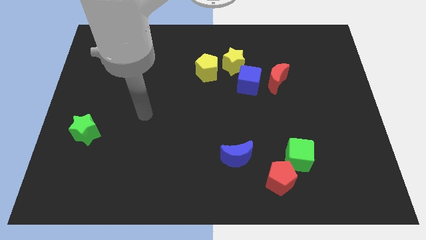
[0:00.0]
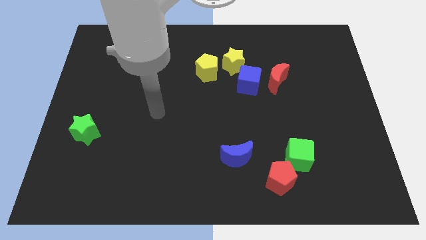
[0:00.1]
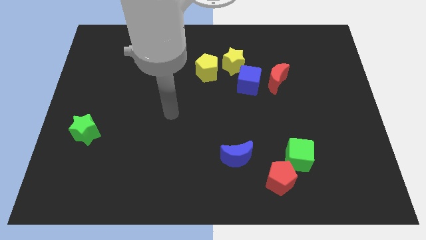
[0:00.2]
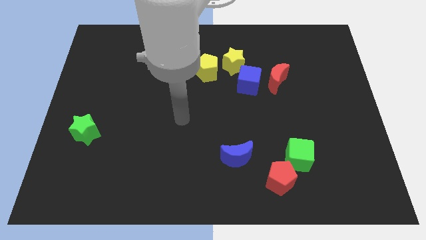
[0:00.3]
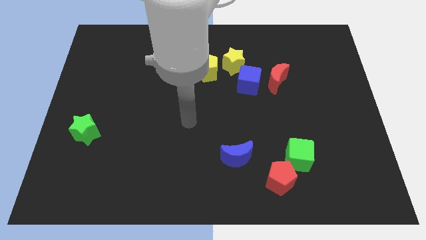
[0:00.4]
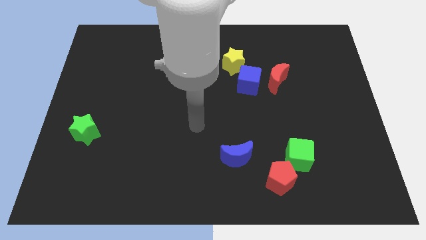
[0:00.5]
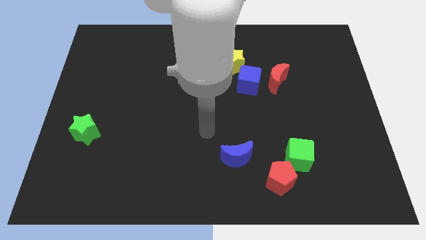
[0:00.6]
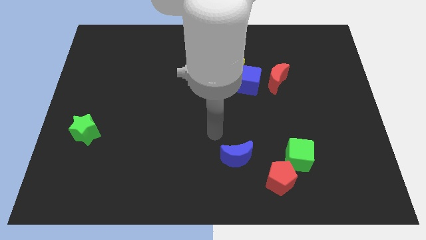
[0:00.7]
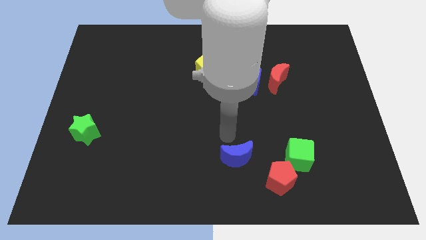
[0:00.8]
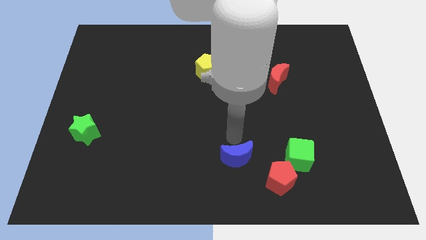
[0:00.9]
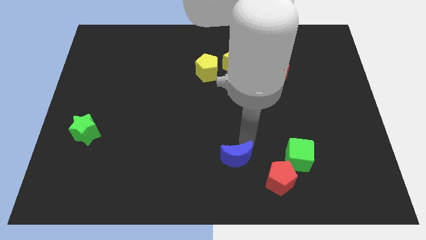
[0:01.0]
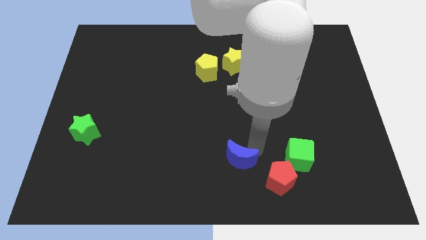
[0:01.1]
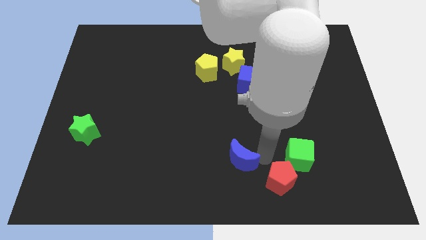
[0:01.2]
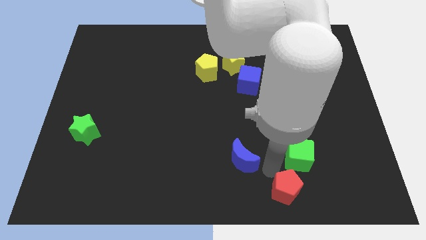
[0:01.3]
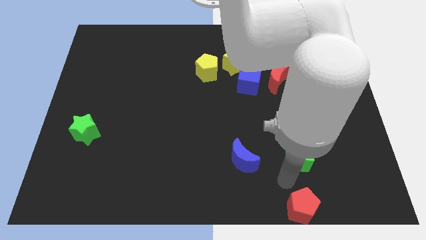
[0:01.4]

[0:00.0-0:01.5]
move the green cube away from the red pentagon

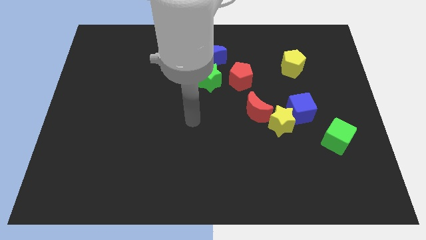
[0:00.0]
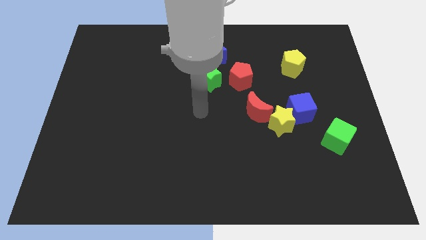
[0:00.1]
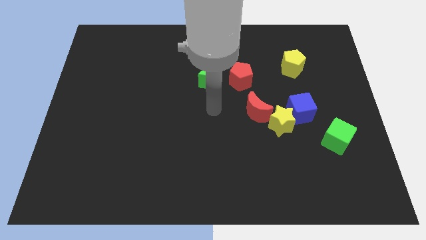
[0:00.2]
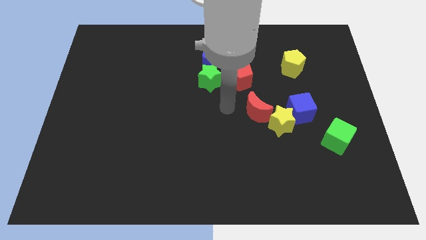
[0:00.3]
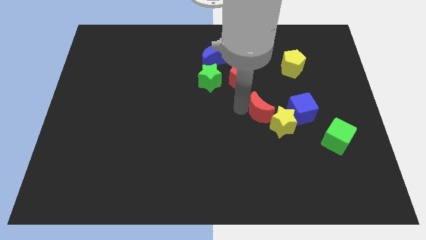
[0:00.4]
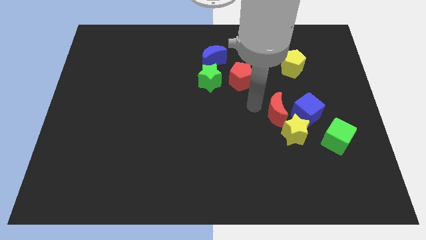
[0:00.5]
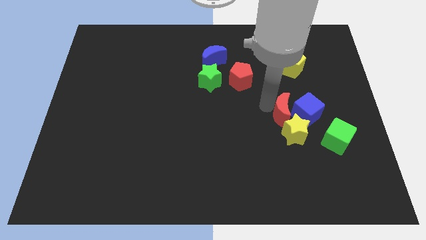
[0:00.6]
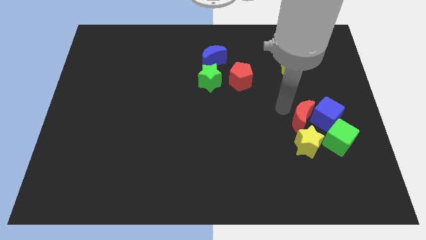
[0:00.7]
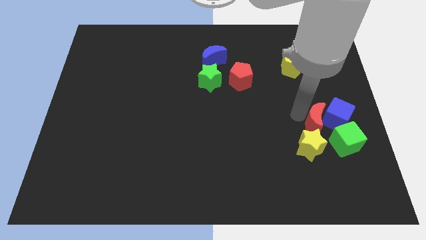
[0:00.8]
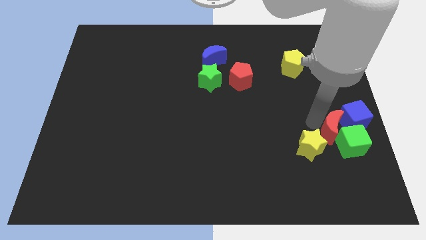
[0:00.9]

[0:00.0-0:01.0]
separate the yellow star from the blue cube and red moon

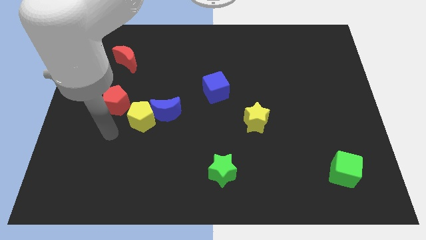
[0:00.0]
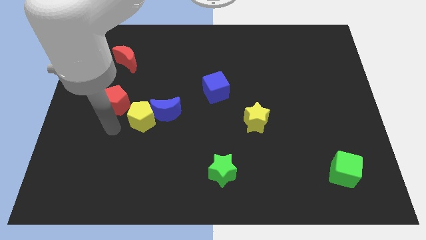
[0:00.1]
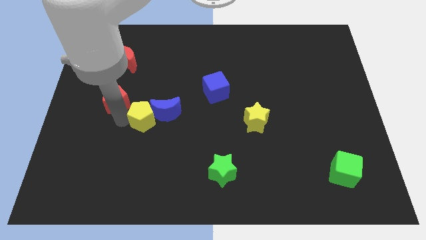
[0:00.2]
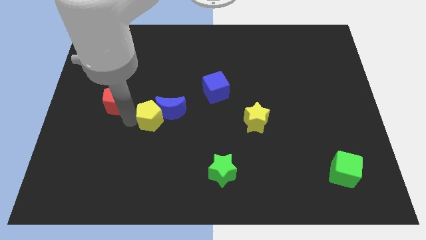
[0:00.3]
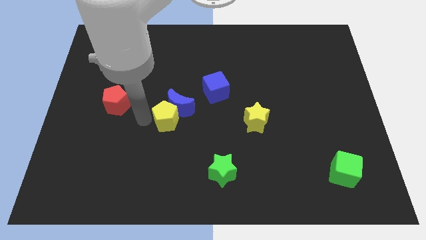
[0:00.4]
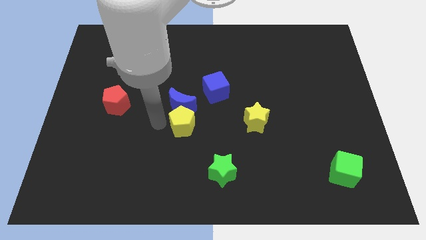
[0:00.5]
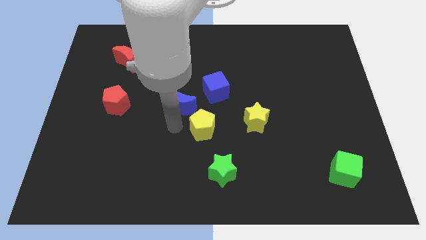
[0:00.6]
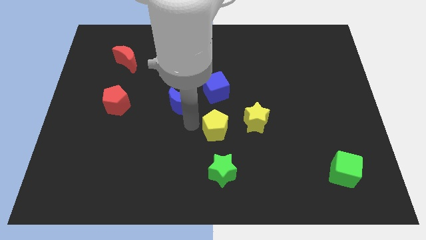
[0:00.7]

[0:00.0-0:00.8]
pull the blue moon apart from the yellow pentagon

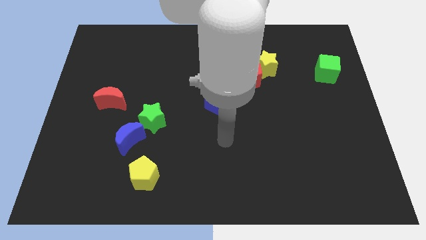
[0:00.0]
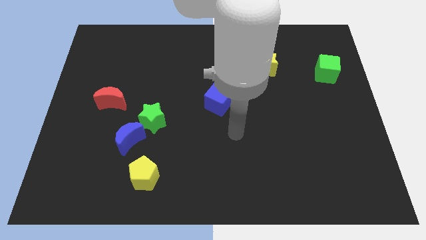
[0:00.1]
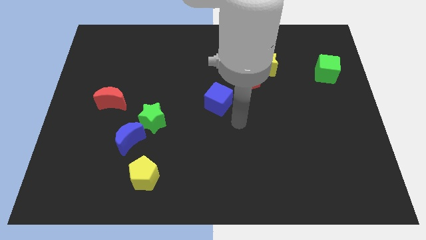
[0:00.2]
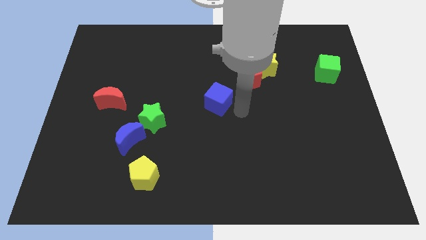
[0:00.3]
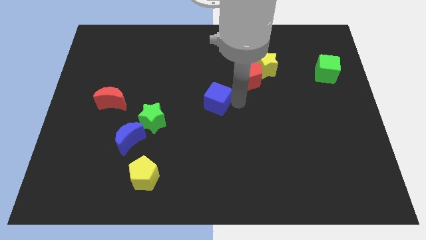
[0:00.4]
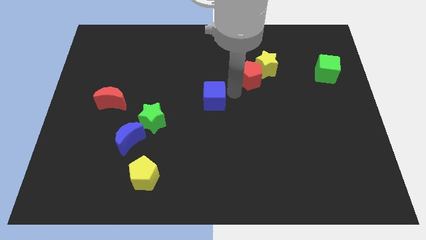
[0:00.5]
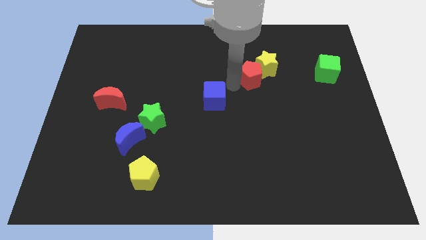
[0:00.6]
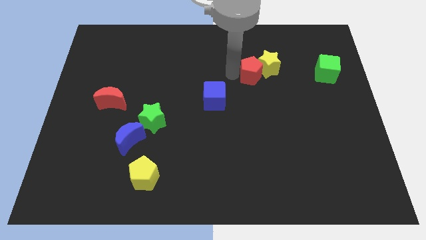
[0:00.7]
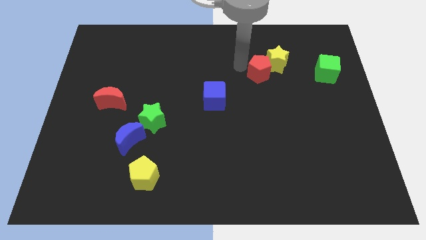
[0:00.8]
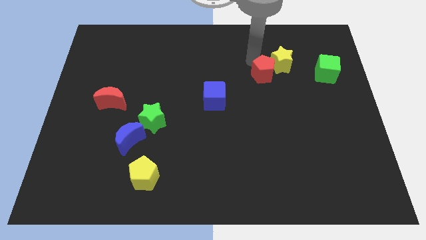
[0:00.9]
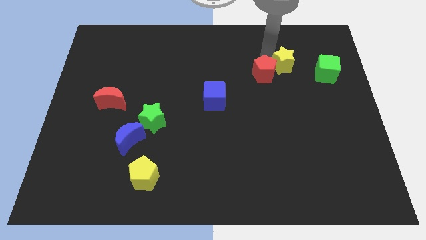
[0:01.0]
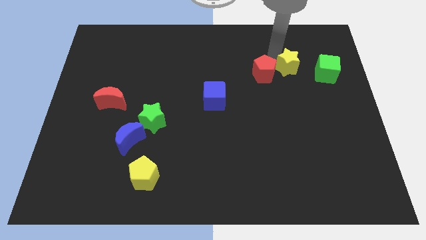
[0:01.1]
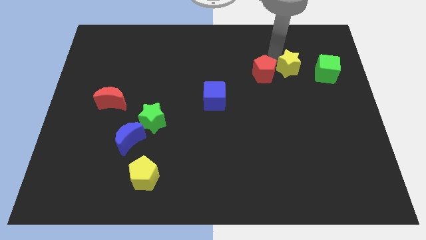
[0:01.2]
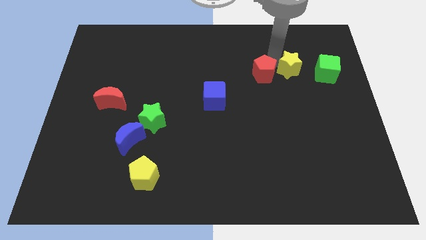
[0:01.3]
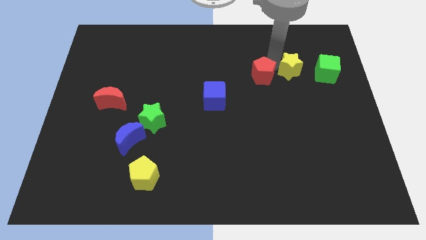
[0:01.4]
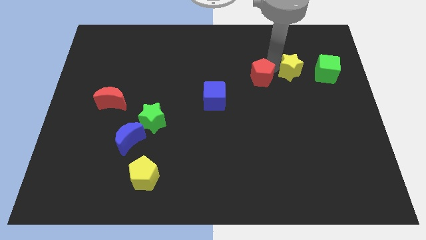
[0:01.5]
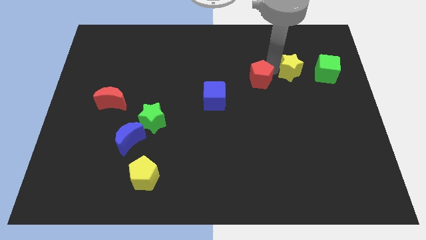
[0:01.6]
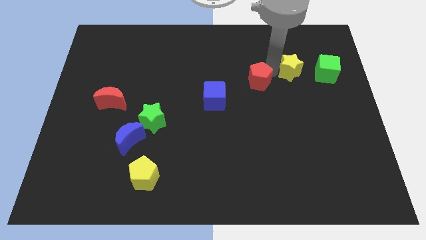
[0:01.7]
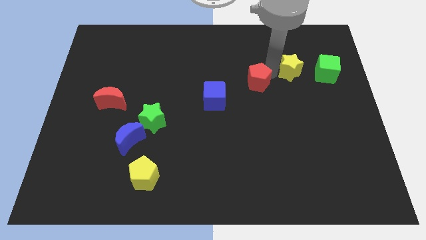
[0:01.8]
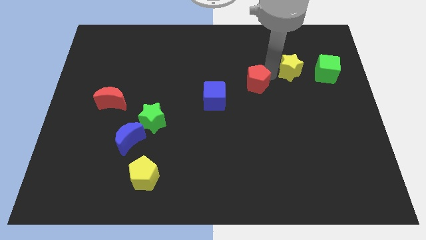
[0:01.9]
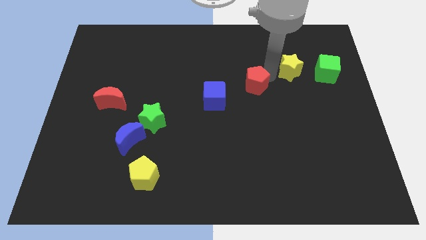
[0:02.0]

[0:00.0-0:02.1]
separate the red pentagon from the yellow star

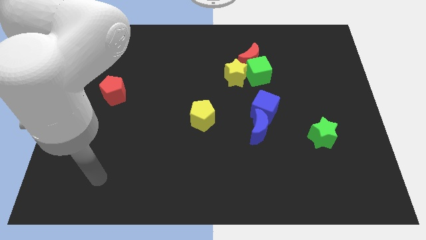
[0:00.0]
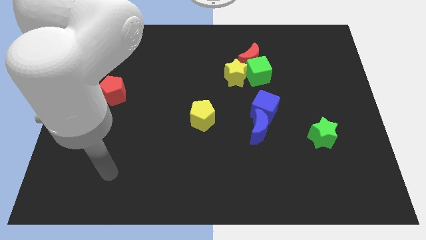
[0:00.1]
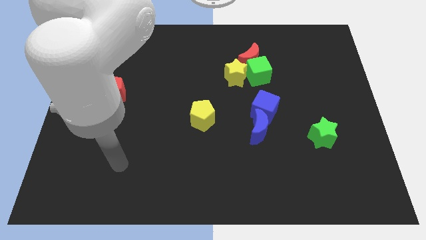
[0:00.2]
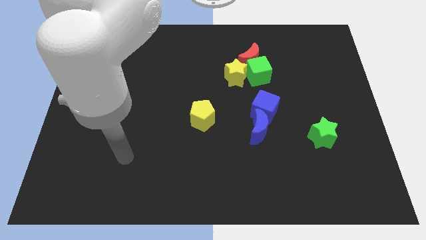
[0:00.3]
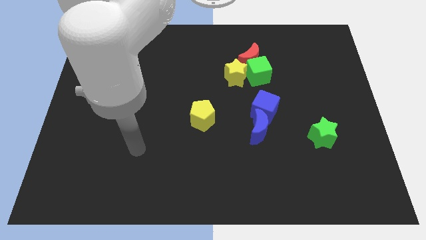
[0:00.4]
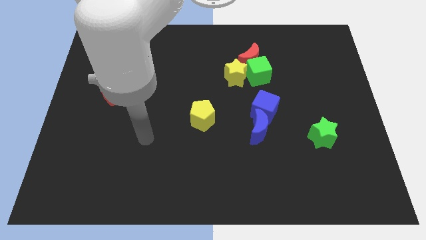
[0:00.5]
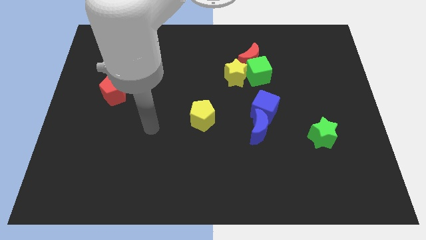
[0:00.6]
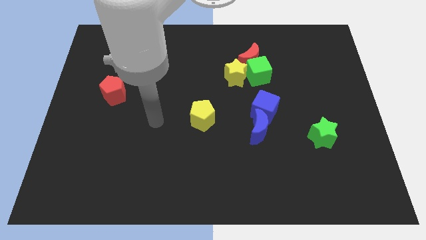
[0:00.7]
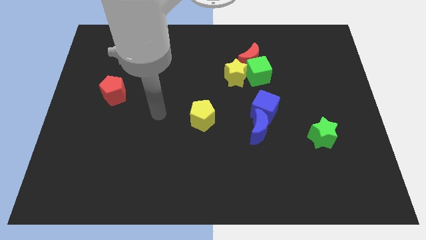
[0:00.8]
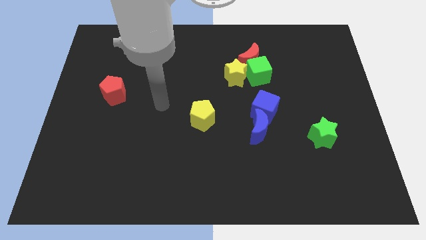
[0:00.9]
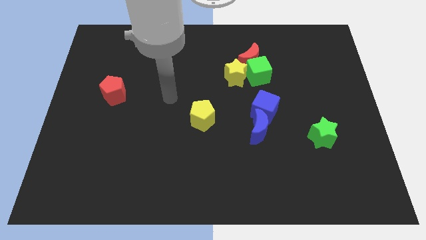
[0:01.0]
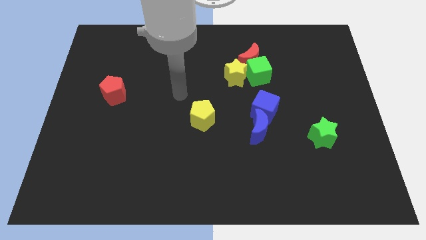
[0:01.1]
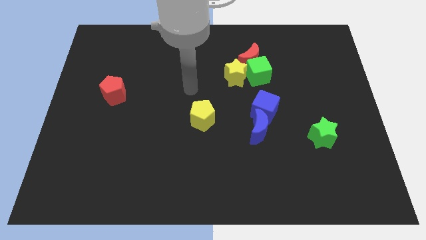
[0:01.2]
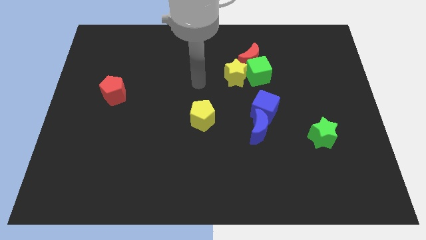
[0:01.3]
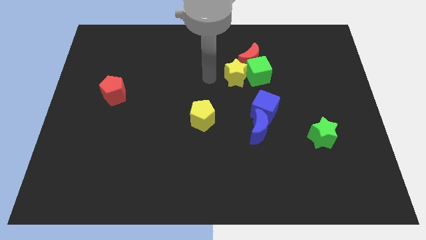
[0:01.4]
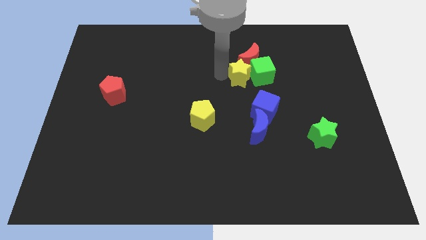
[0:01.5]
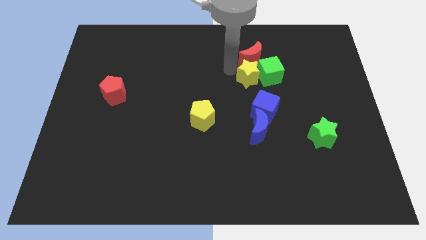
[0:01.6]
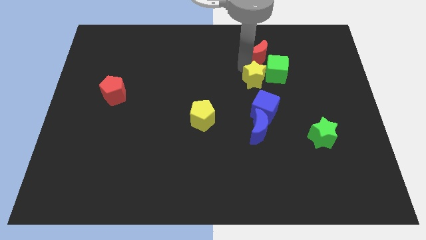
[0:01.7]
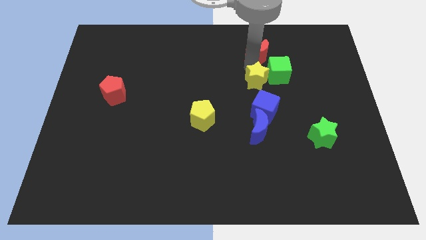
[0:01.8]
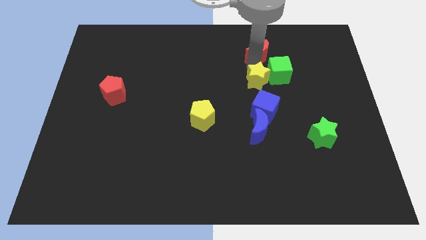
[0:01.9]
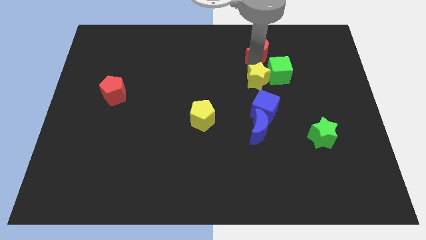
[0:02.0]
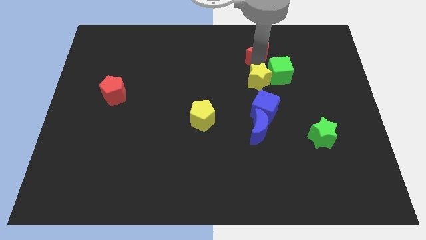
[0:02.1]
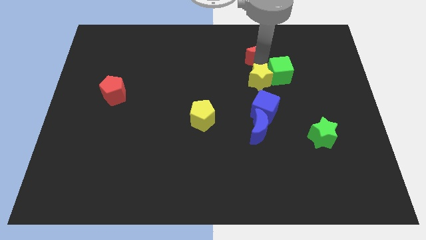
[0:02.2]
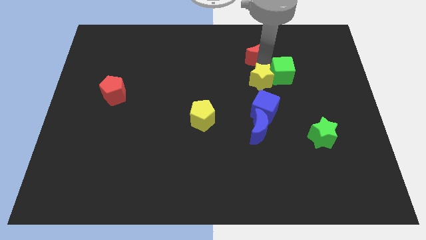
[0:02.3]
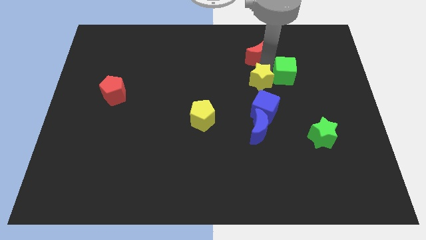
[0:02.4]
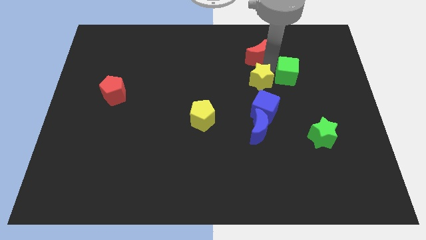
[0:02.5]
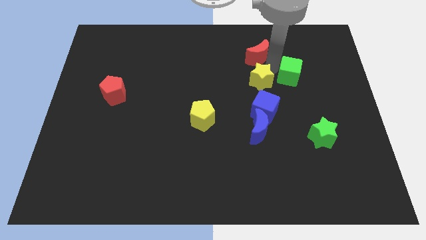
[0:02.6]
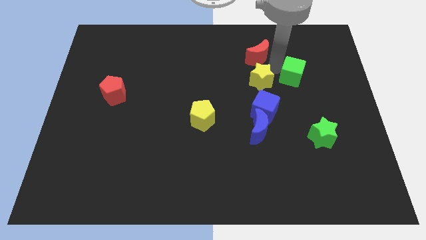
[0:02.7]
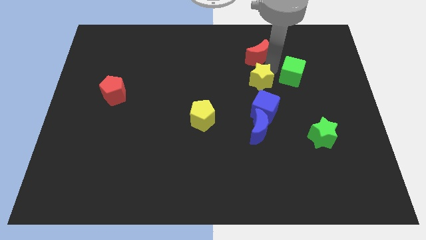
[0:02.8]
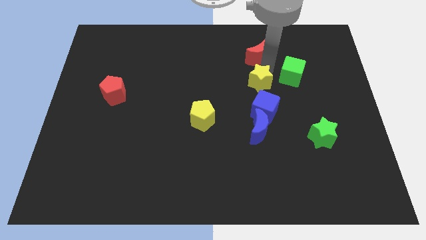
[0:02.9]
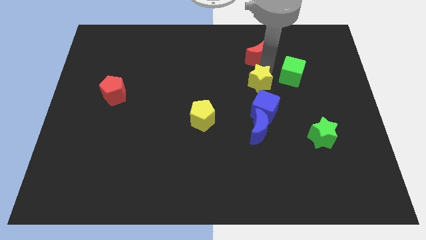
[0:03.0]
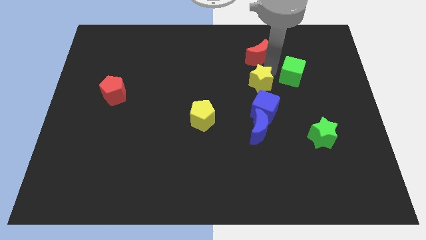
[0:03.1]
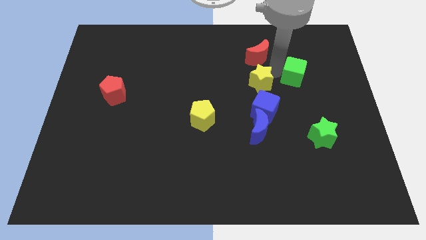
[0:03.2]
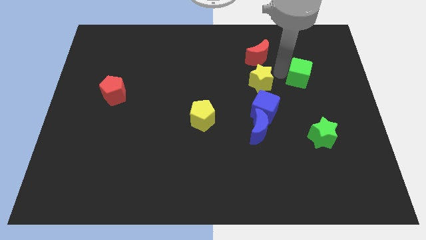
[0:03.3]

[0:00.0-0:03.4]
separate the green cube from the red moon and yellow star

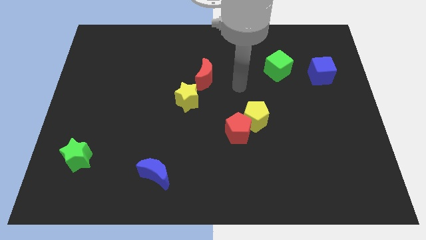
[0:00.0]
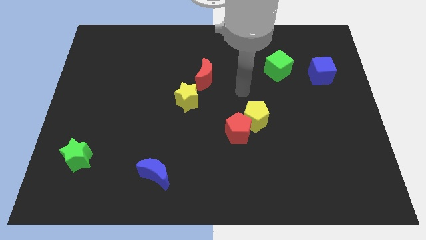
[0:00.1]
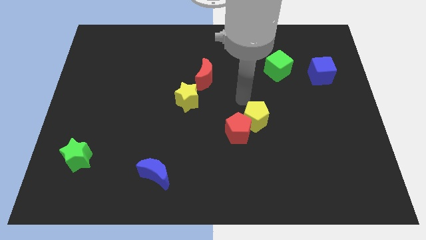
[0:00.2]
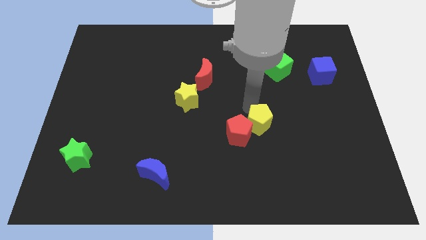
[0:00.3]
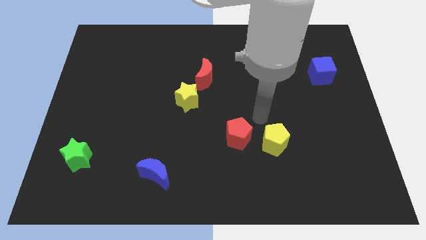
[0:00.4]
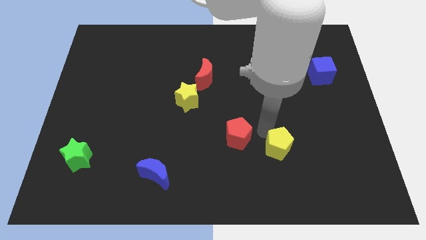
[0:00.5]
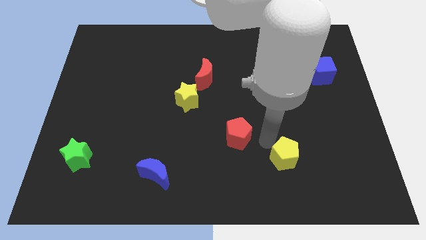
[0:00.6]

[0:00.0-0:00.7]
separate the red pentagon from the yellow pentagon

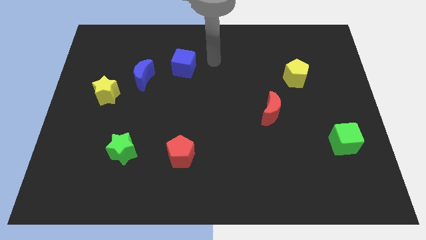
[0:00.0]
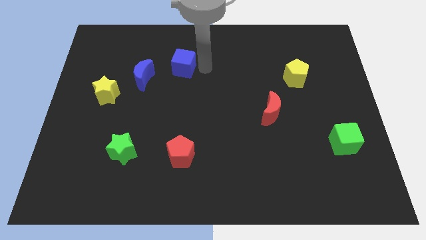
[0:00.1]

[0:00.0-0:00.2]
pull the blue moon apart from the yellow star
